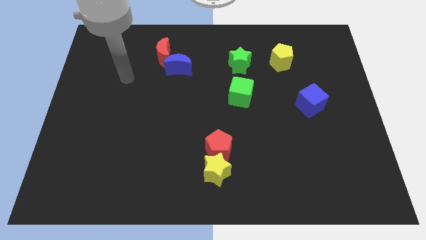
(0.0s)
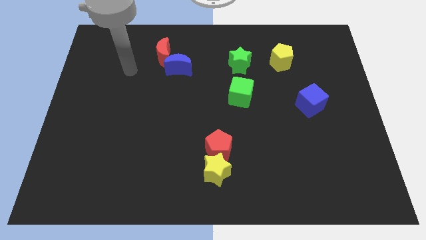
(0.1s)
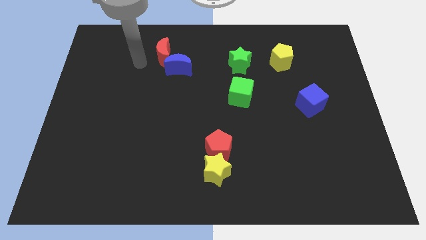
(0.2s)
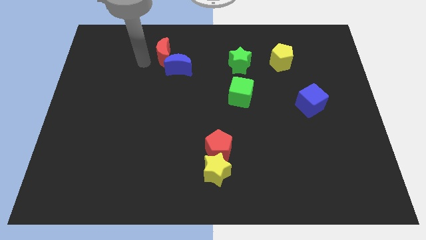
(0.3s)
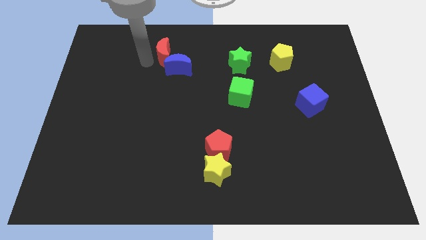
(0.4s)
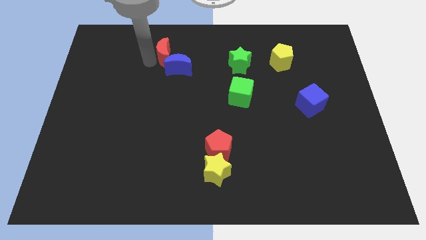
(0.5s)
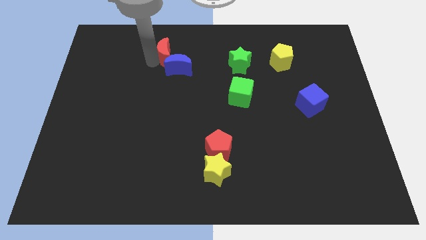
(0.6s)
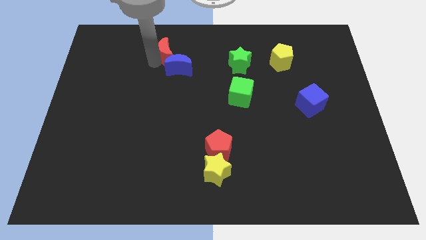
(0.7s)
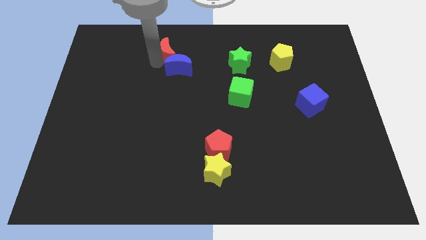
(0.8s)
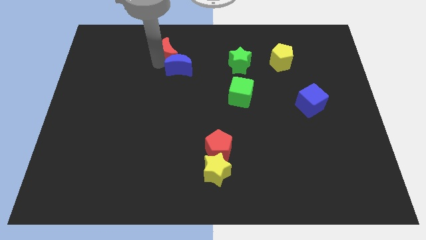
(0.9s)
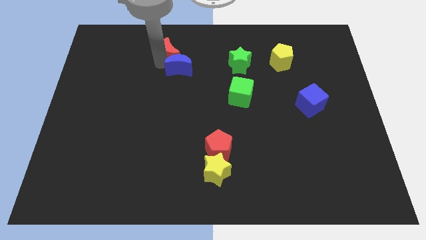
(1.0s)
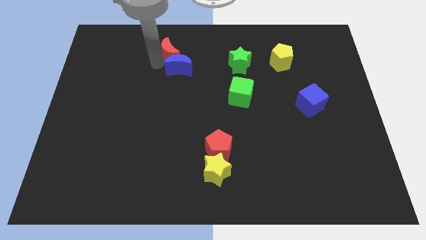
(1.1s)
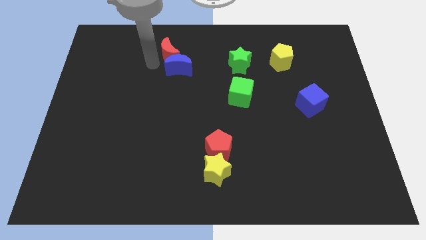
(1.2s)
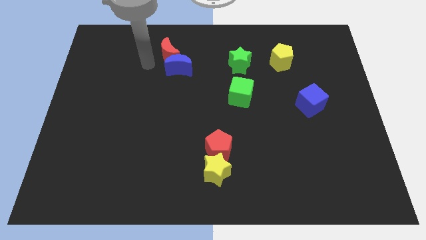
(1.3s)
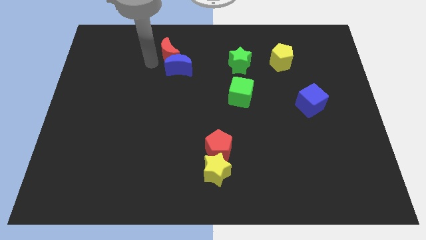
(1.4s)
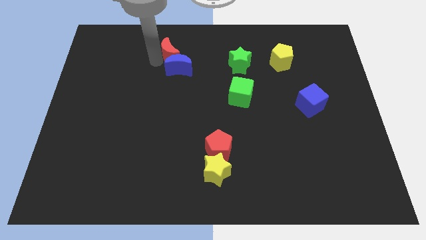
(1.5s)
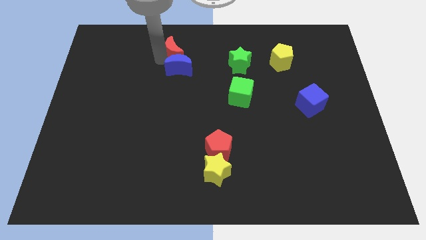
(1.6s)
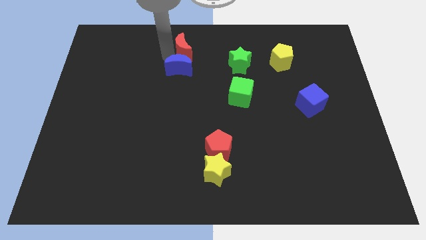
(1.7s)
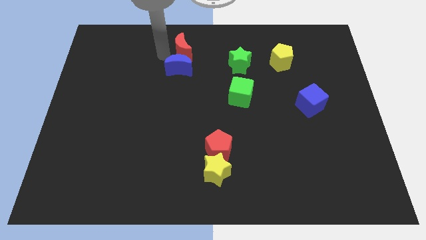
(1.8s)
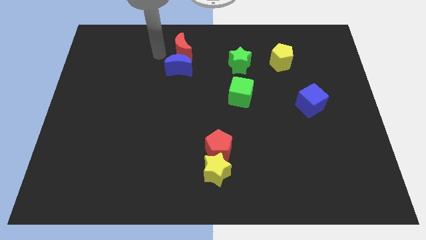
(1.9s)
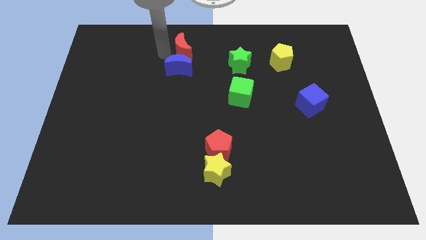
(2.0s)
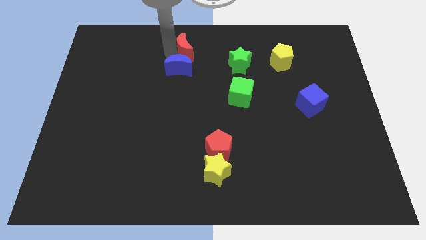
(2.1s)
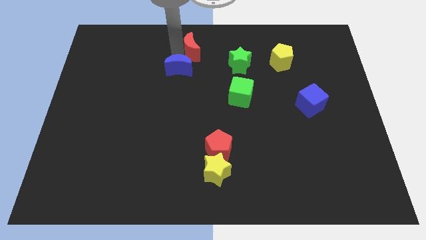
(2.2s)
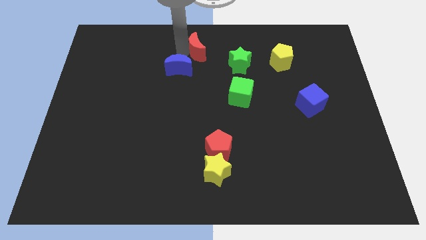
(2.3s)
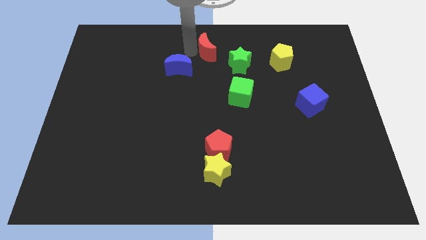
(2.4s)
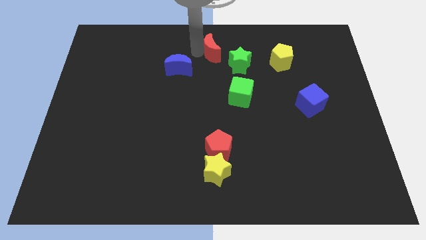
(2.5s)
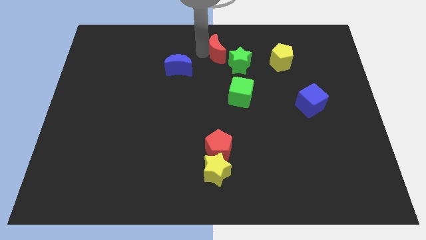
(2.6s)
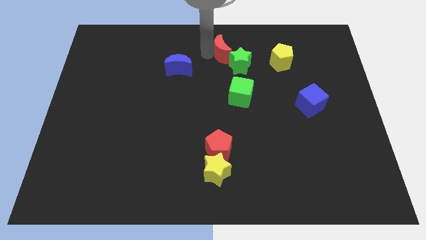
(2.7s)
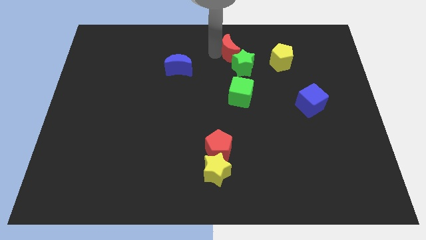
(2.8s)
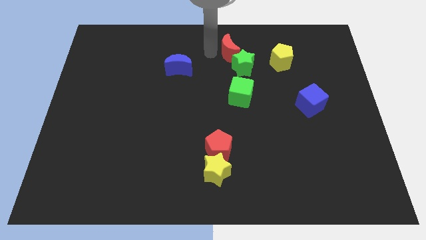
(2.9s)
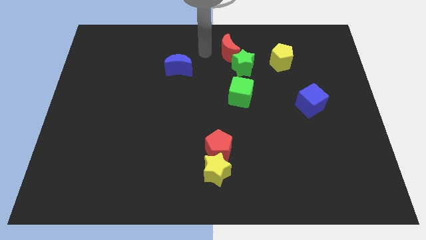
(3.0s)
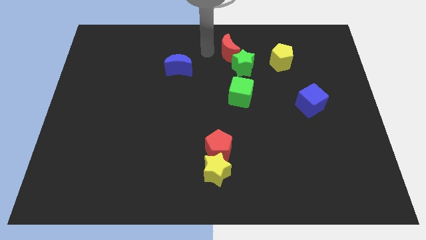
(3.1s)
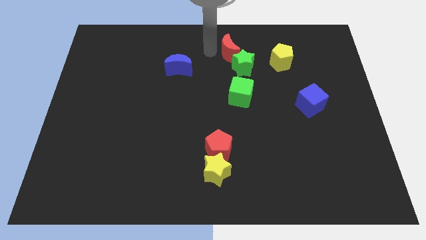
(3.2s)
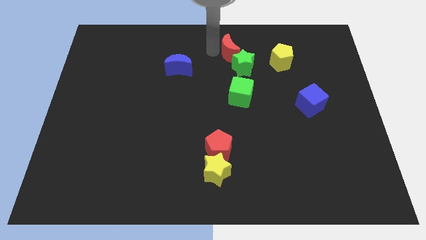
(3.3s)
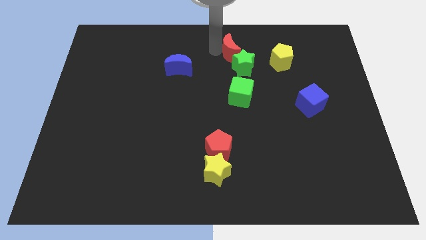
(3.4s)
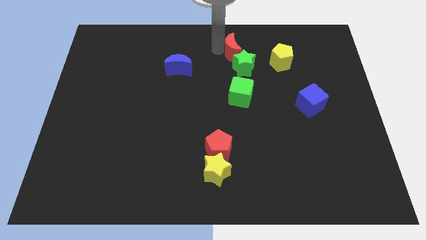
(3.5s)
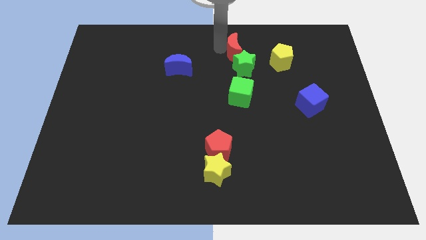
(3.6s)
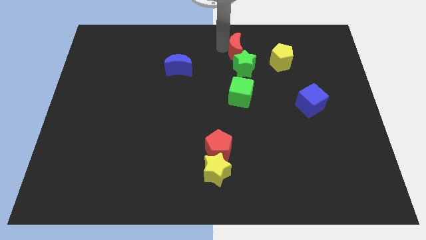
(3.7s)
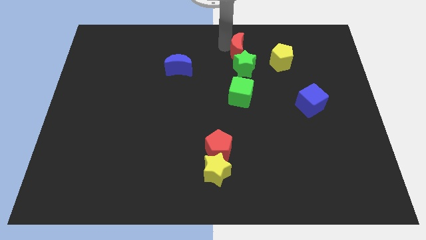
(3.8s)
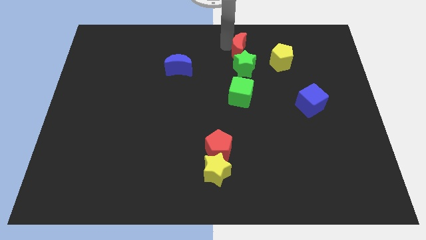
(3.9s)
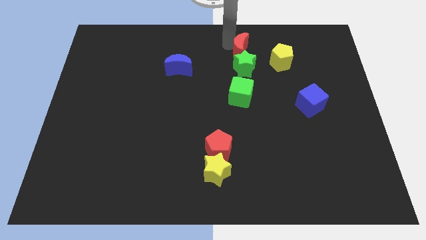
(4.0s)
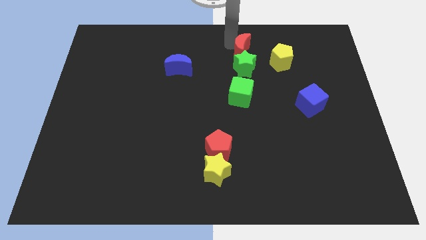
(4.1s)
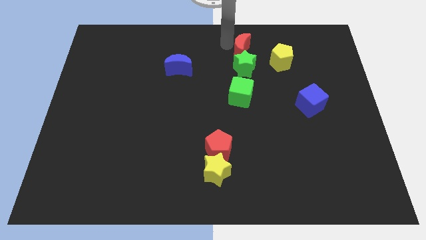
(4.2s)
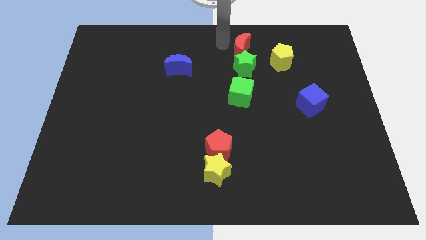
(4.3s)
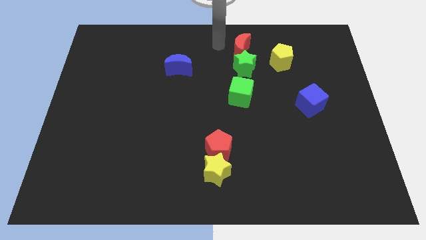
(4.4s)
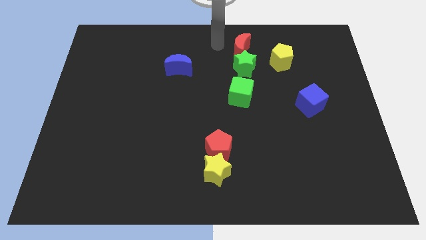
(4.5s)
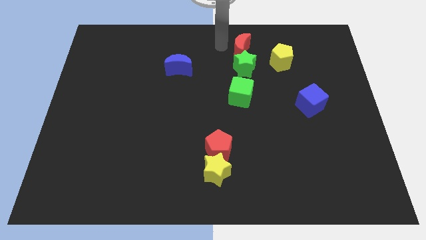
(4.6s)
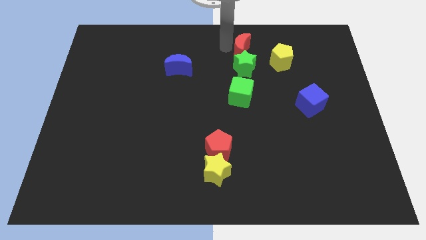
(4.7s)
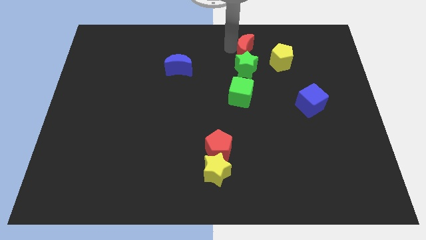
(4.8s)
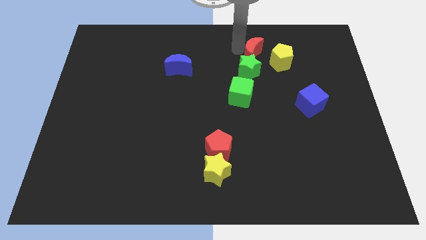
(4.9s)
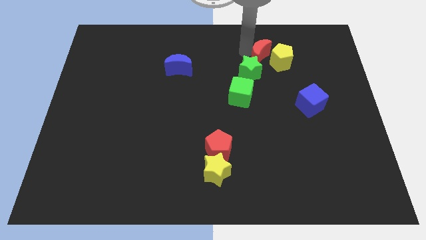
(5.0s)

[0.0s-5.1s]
put the red moon to the yellow pentagon

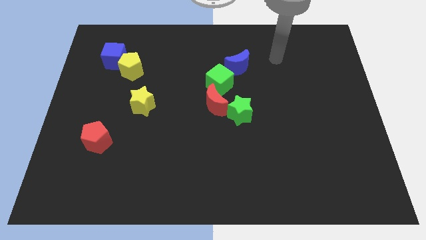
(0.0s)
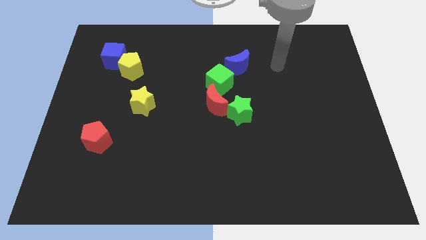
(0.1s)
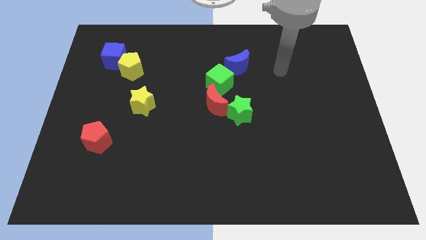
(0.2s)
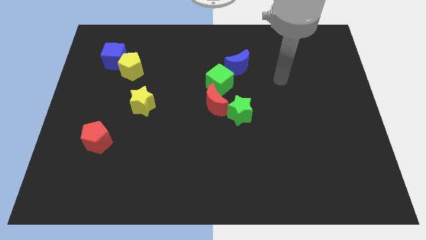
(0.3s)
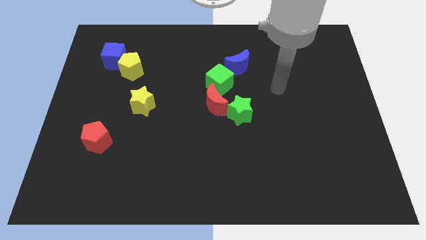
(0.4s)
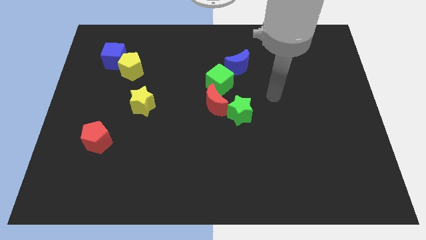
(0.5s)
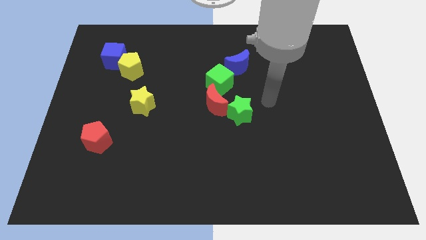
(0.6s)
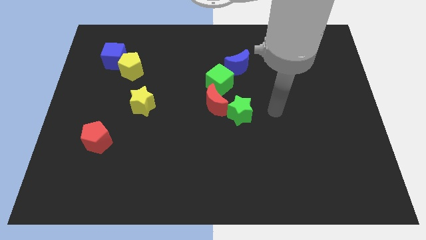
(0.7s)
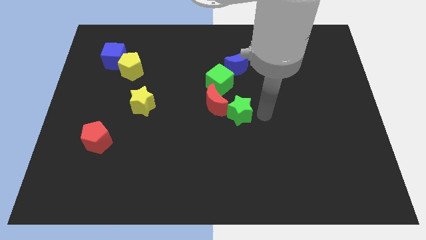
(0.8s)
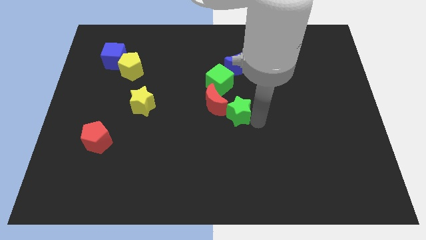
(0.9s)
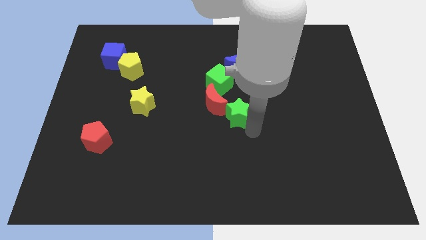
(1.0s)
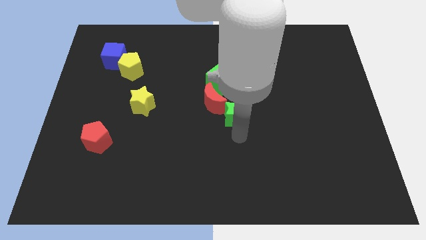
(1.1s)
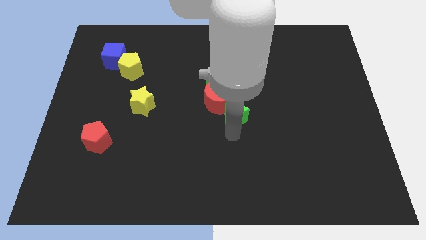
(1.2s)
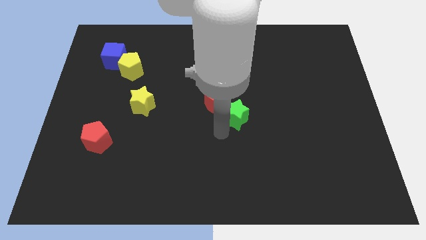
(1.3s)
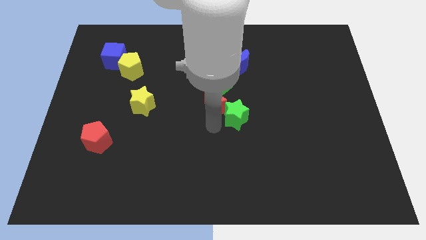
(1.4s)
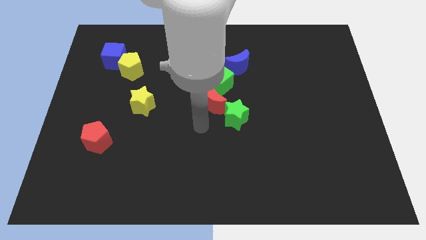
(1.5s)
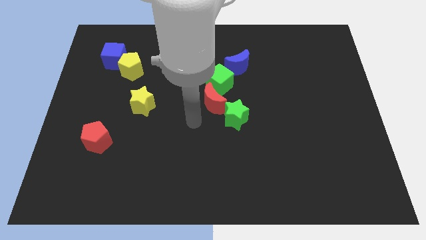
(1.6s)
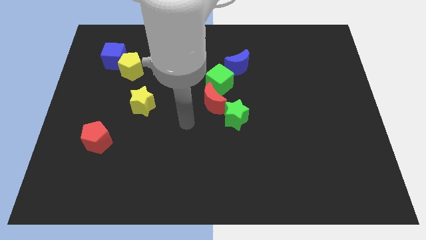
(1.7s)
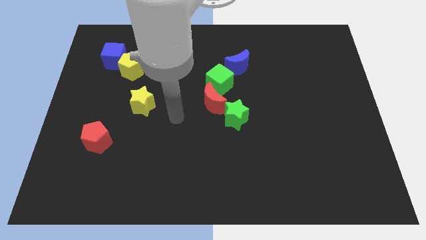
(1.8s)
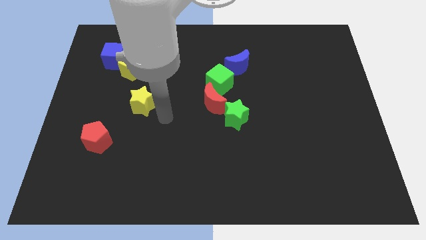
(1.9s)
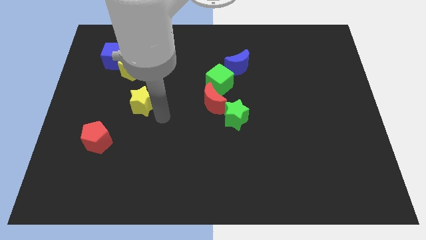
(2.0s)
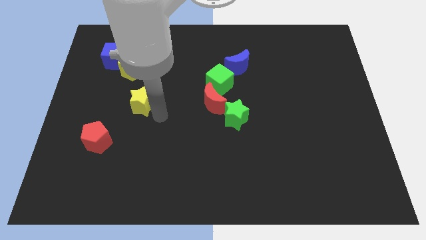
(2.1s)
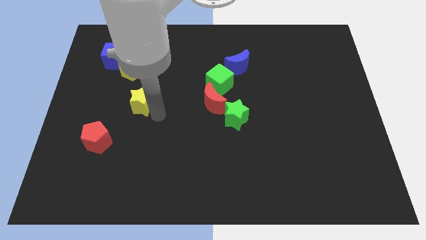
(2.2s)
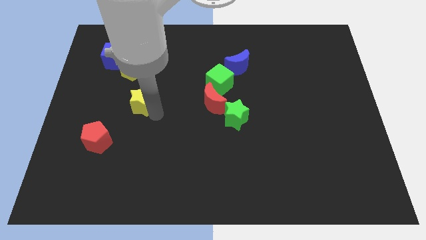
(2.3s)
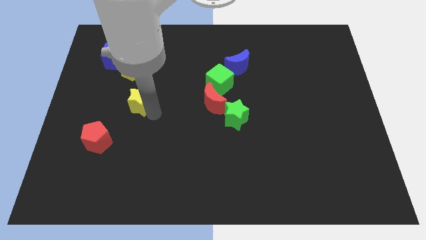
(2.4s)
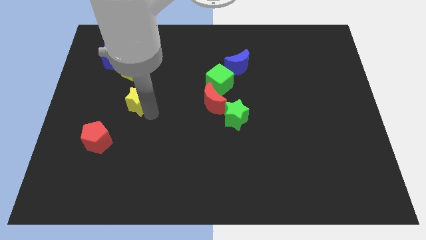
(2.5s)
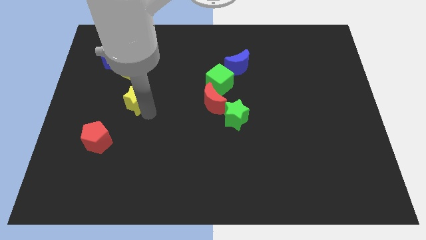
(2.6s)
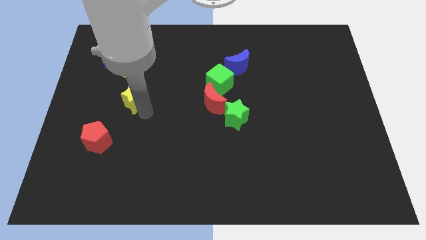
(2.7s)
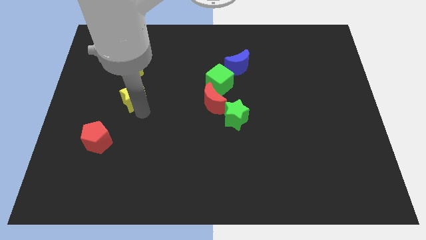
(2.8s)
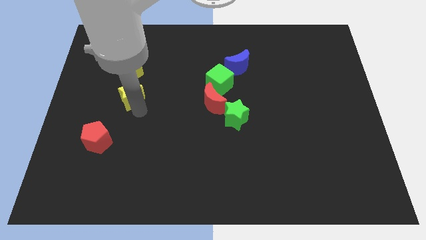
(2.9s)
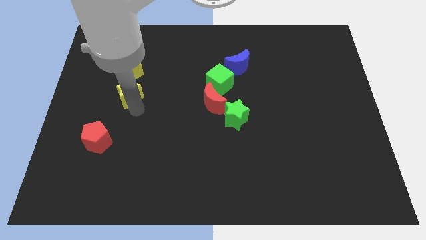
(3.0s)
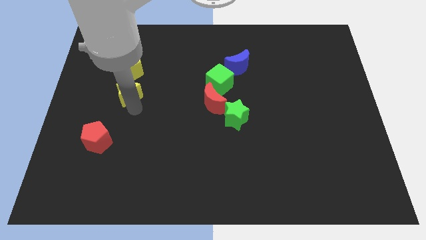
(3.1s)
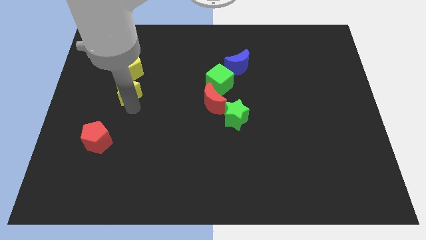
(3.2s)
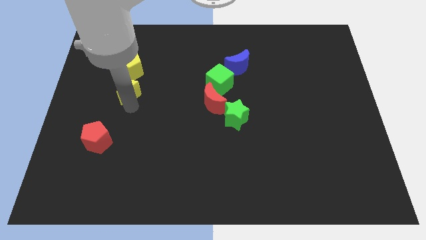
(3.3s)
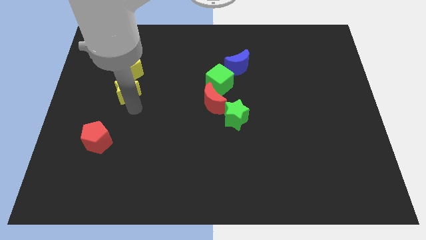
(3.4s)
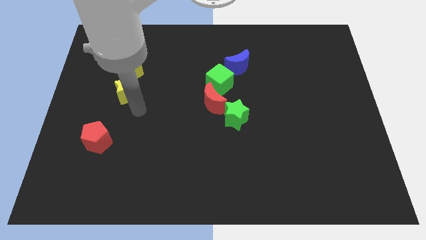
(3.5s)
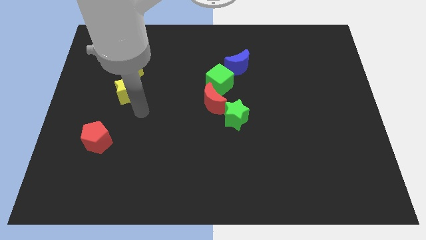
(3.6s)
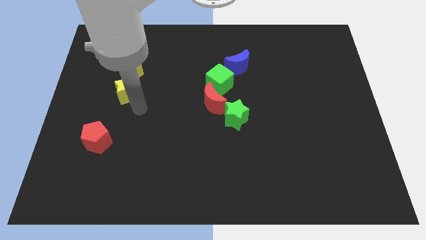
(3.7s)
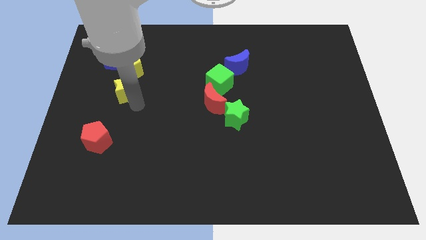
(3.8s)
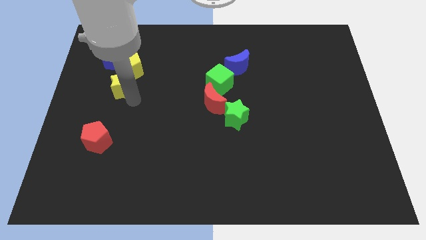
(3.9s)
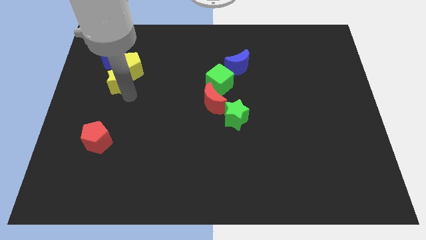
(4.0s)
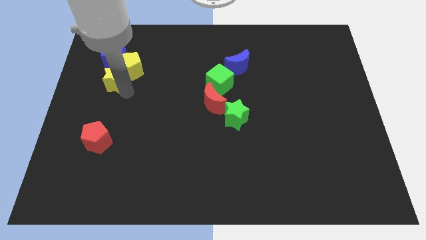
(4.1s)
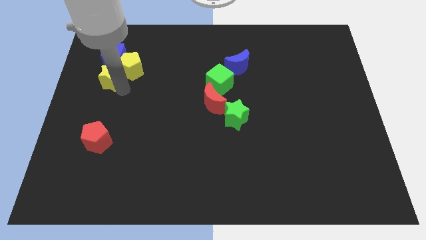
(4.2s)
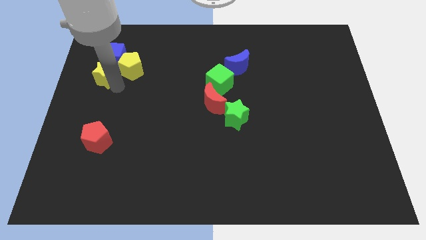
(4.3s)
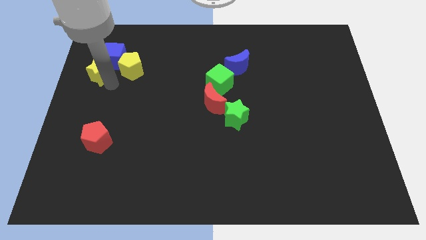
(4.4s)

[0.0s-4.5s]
put the yellow star towards the blue cube
